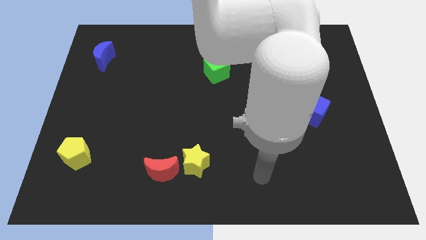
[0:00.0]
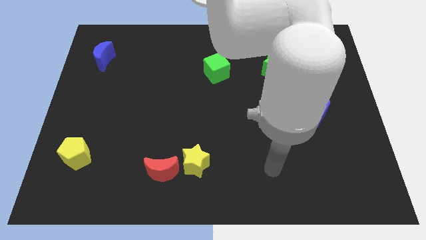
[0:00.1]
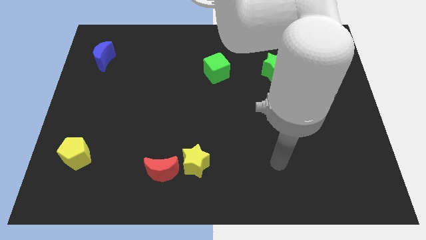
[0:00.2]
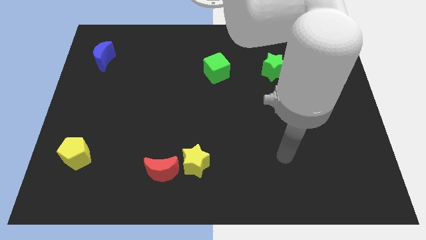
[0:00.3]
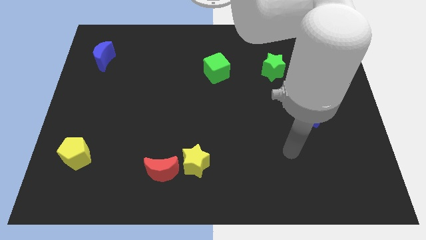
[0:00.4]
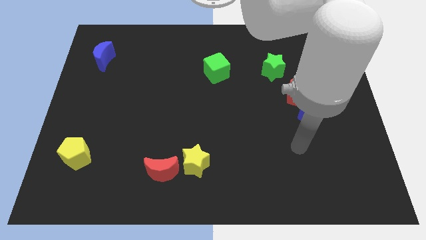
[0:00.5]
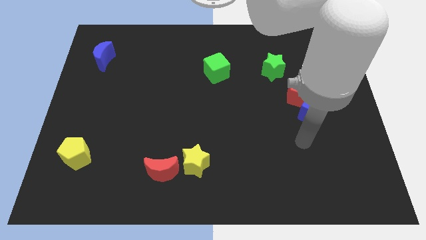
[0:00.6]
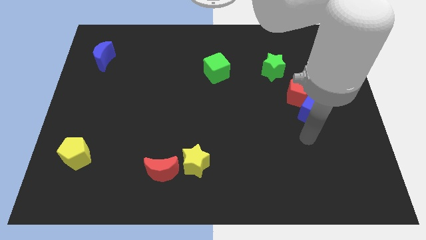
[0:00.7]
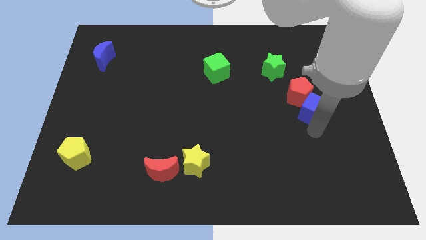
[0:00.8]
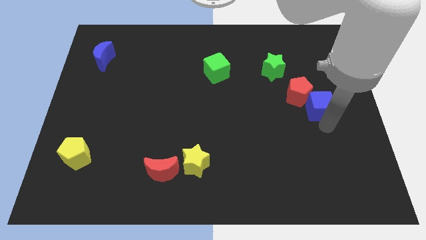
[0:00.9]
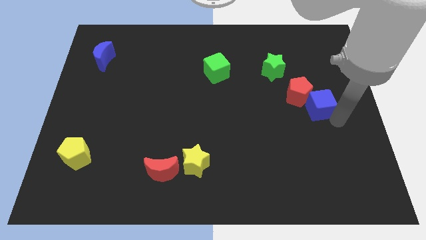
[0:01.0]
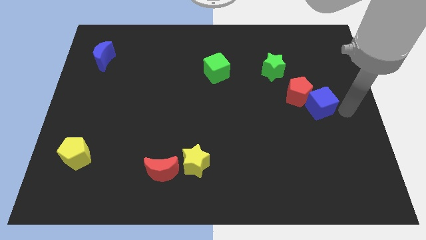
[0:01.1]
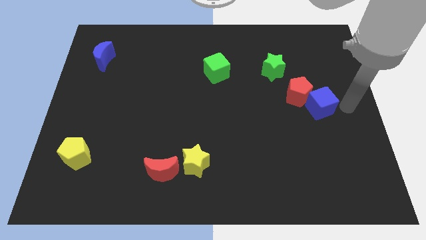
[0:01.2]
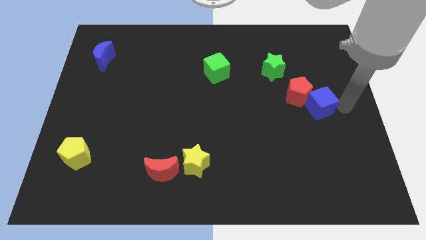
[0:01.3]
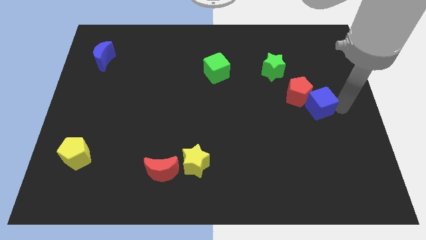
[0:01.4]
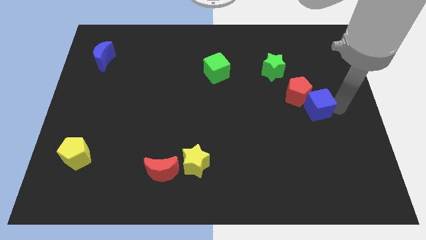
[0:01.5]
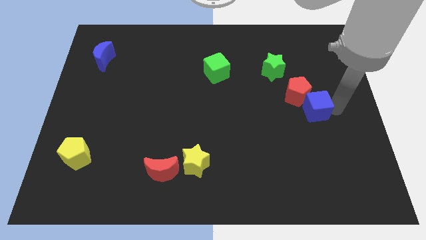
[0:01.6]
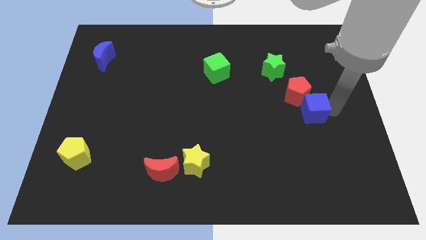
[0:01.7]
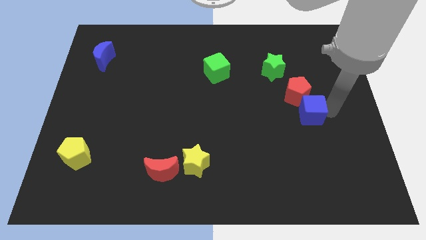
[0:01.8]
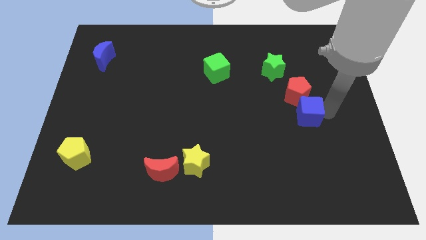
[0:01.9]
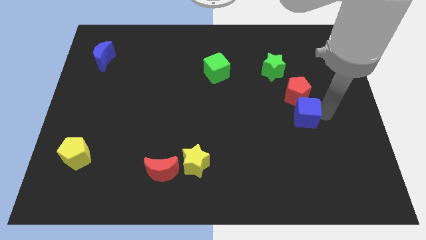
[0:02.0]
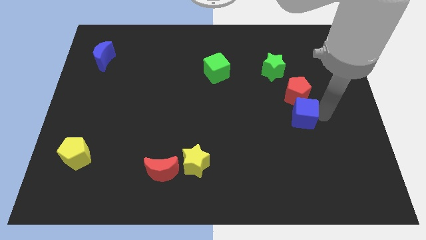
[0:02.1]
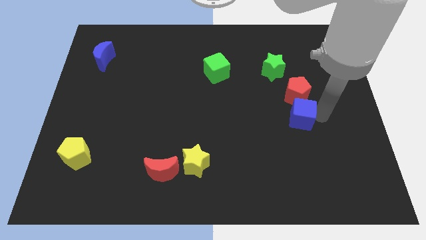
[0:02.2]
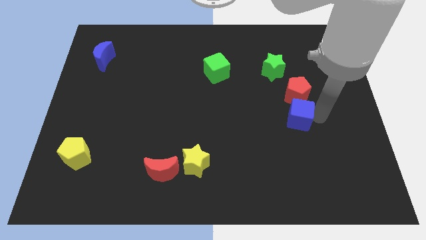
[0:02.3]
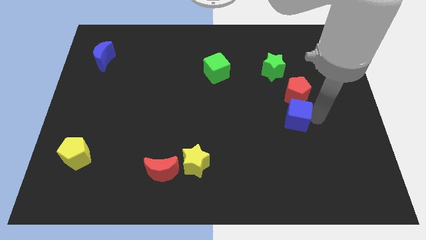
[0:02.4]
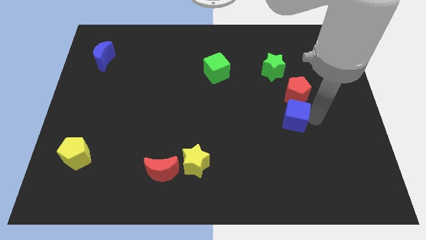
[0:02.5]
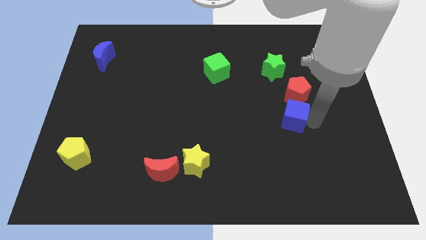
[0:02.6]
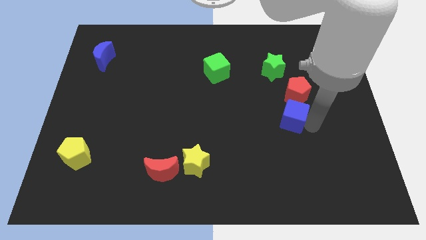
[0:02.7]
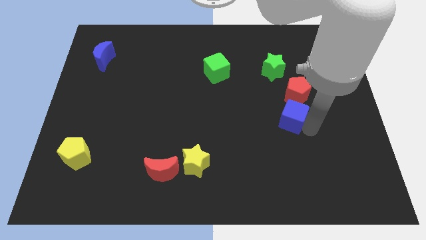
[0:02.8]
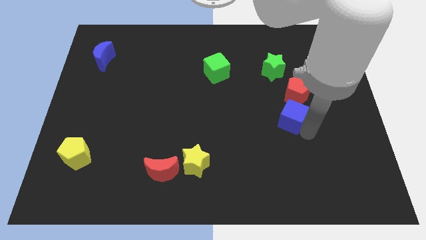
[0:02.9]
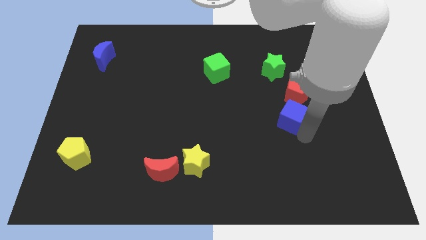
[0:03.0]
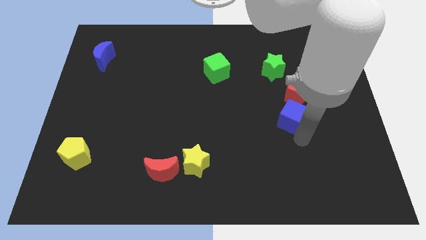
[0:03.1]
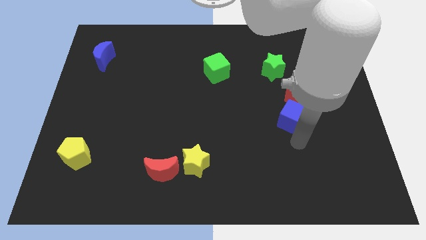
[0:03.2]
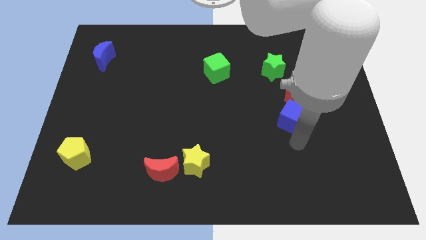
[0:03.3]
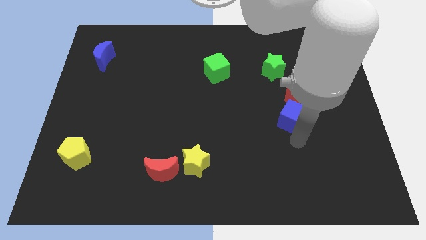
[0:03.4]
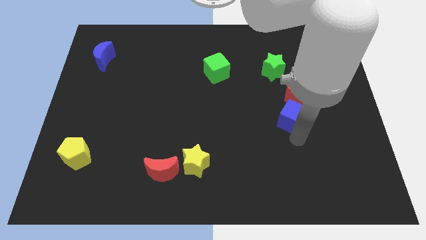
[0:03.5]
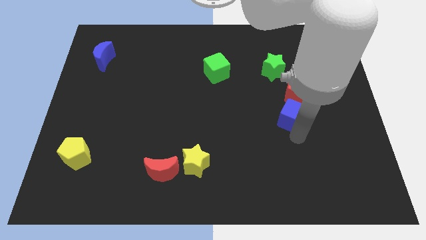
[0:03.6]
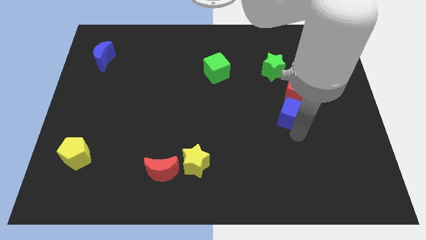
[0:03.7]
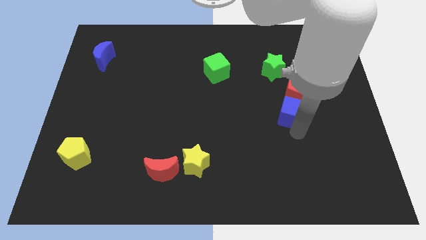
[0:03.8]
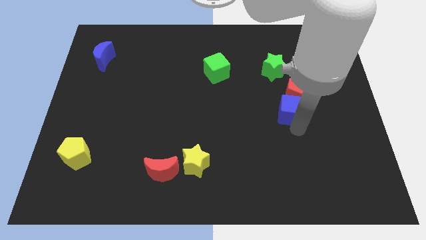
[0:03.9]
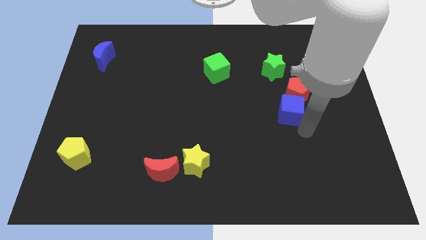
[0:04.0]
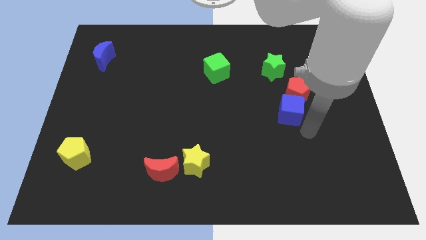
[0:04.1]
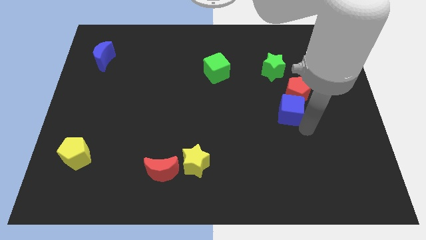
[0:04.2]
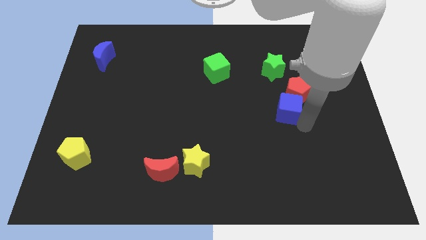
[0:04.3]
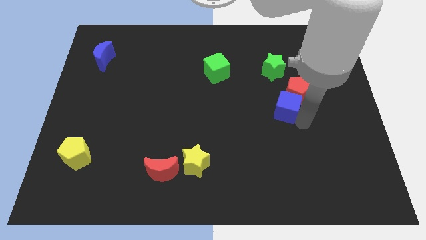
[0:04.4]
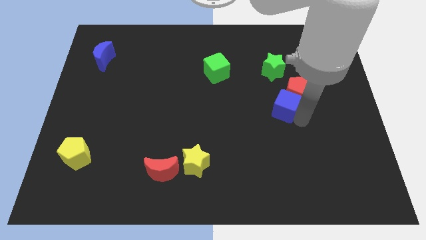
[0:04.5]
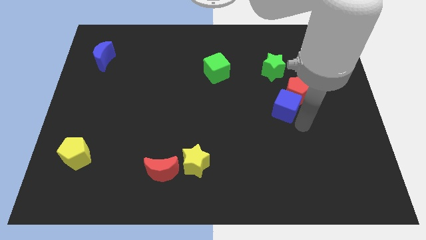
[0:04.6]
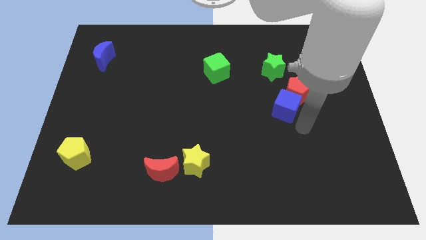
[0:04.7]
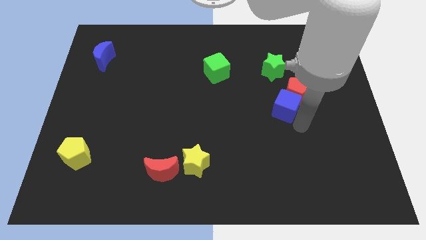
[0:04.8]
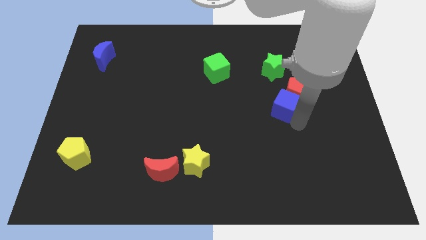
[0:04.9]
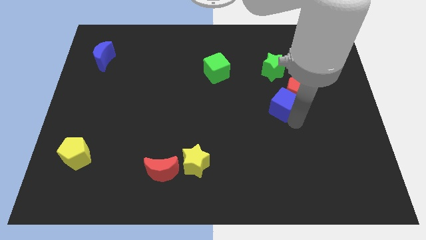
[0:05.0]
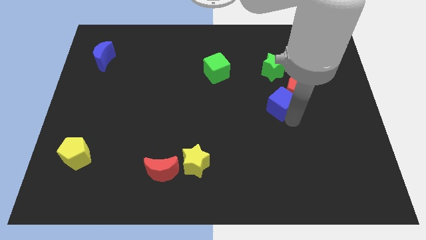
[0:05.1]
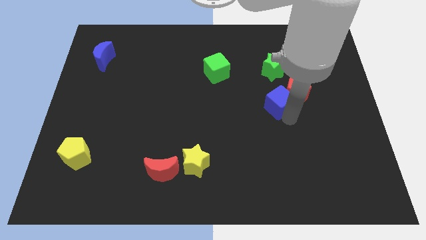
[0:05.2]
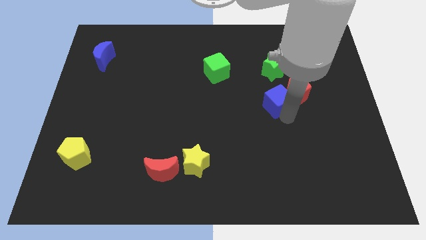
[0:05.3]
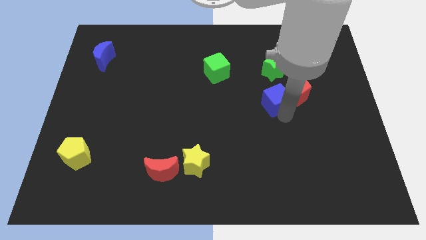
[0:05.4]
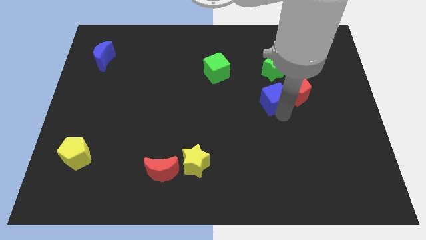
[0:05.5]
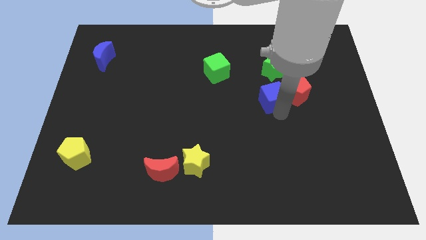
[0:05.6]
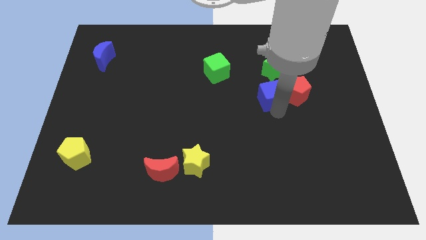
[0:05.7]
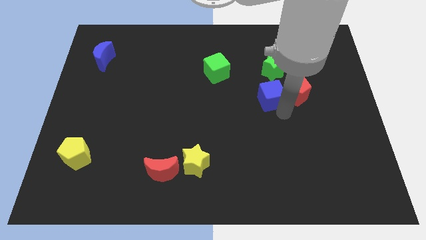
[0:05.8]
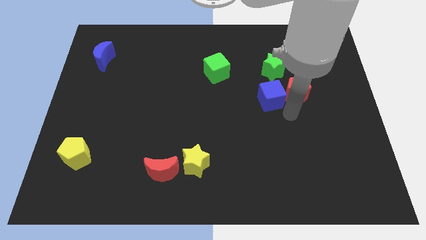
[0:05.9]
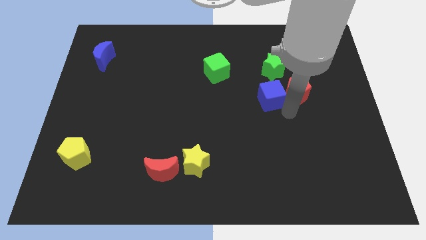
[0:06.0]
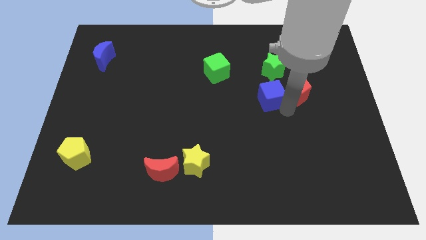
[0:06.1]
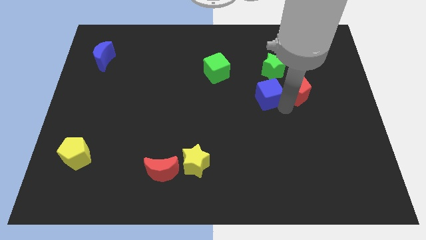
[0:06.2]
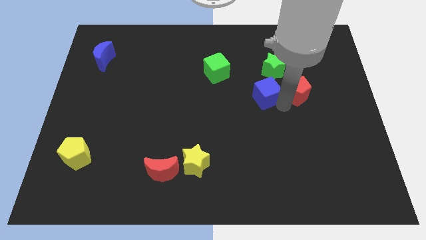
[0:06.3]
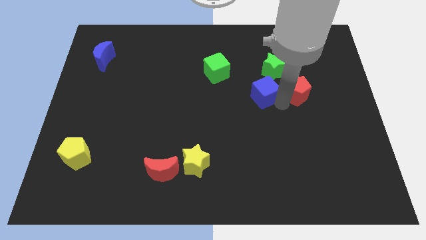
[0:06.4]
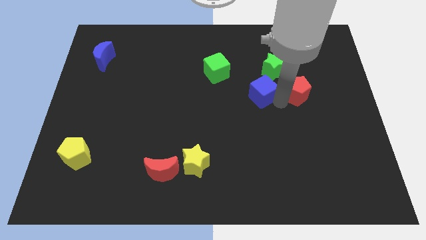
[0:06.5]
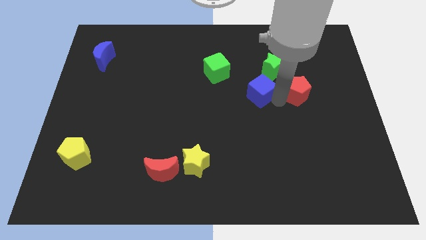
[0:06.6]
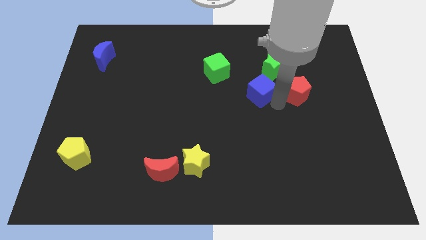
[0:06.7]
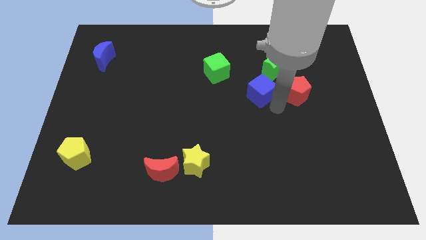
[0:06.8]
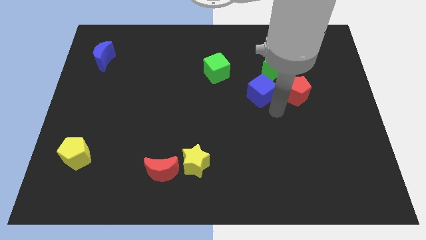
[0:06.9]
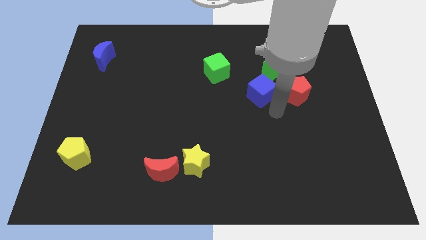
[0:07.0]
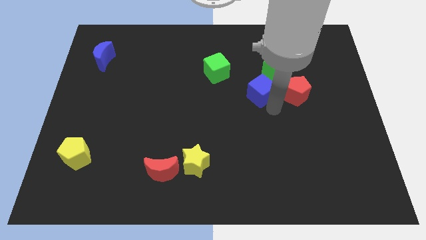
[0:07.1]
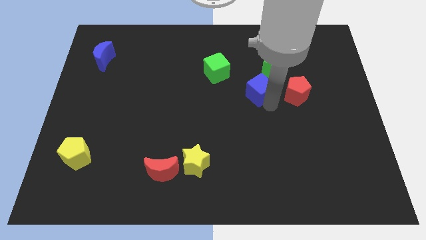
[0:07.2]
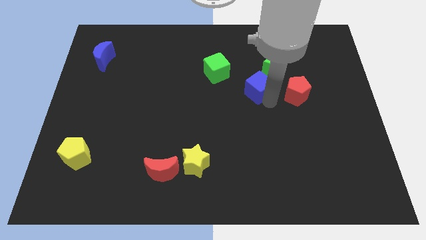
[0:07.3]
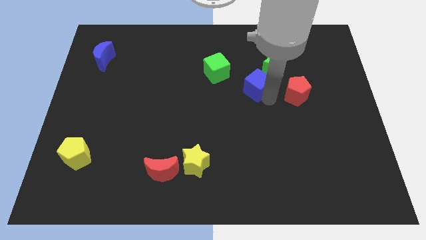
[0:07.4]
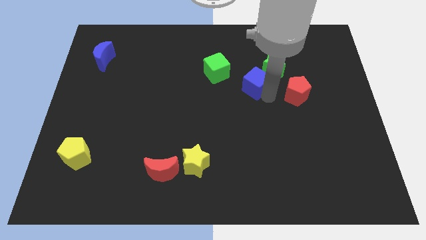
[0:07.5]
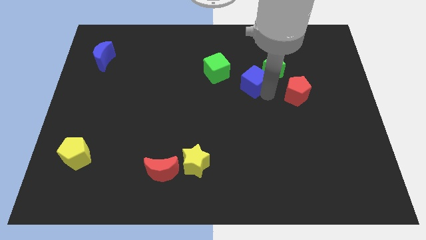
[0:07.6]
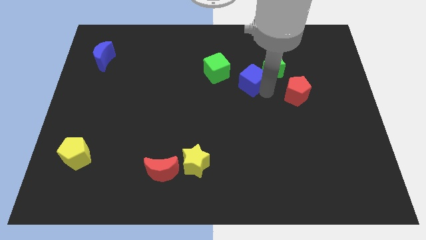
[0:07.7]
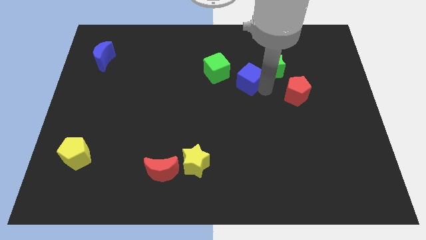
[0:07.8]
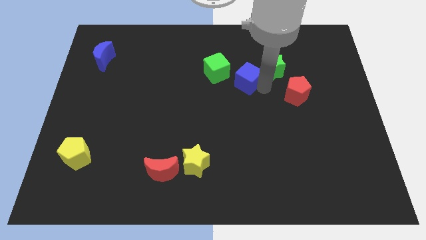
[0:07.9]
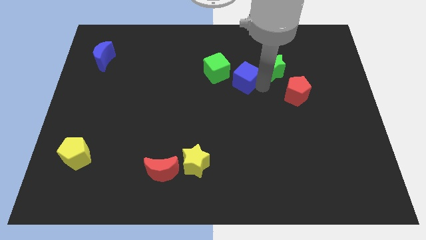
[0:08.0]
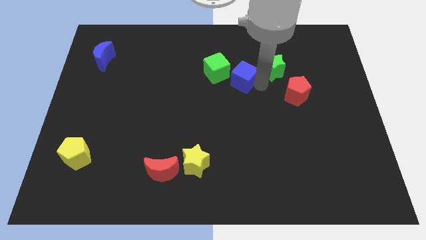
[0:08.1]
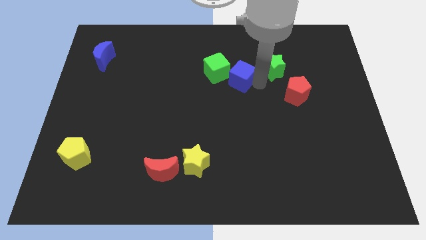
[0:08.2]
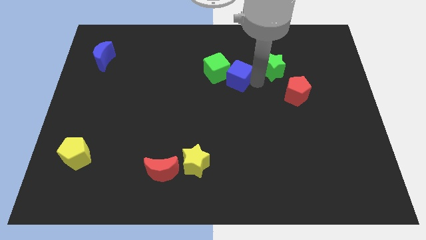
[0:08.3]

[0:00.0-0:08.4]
slide the blue cube next to the green cube

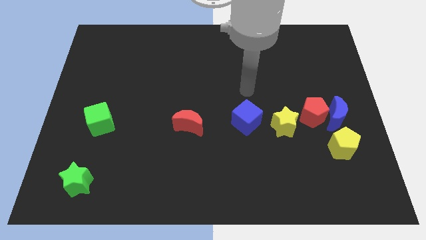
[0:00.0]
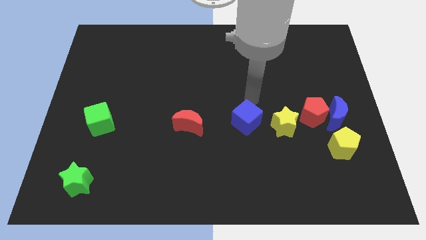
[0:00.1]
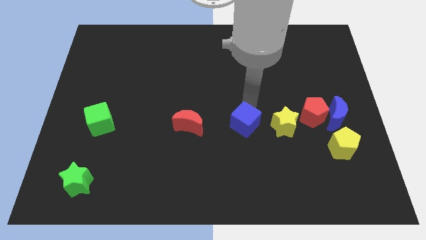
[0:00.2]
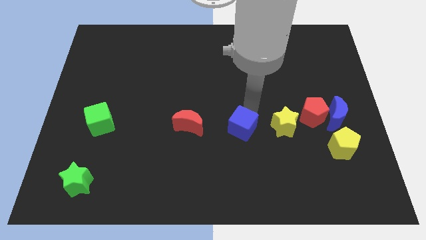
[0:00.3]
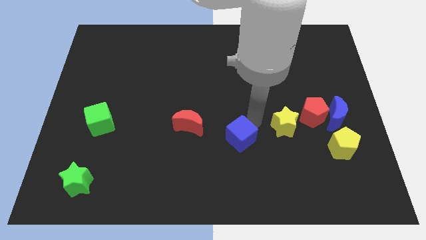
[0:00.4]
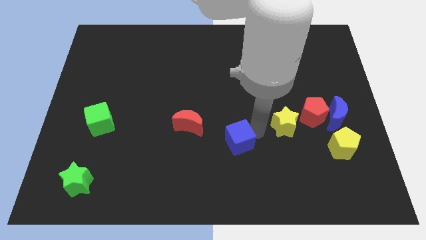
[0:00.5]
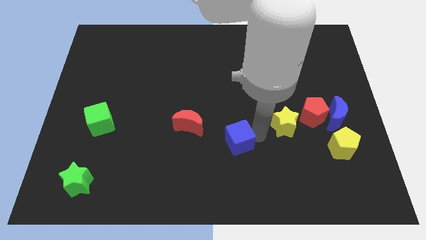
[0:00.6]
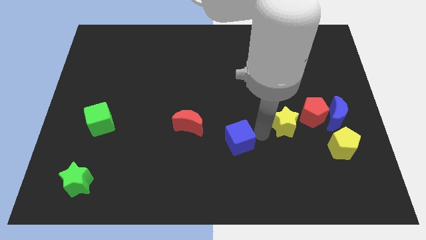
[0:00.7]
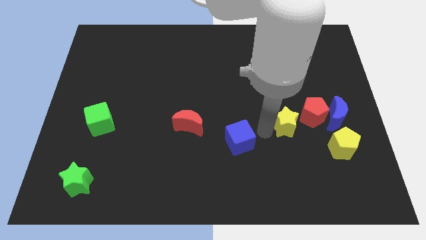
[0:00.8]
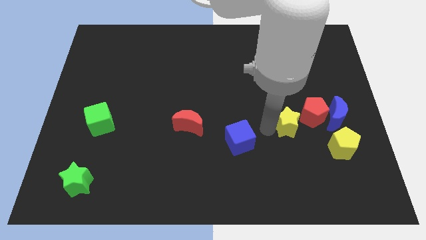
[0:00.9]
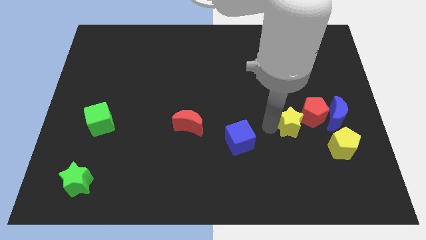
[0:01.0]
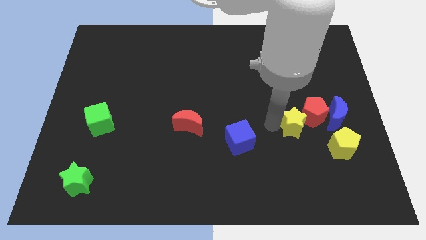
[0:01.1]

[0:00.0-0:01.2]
move the yellow star close to the red pentagon
